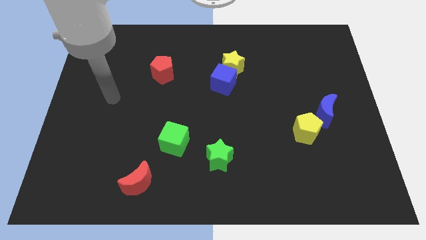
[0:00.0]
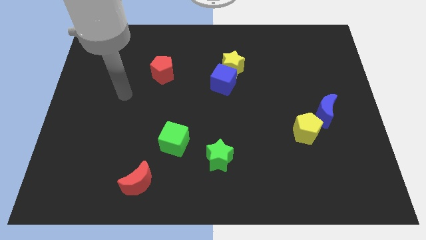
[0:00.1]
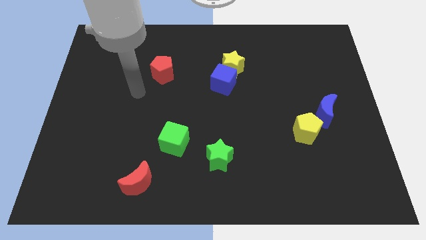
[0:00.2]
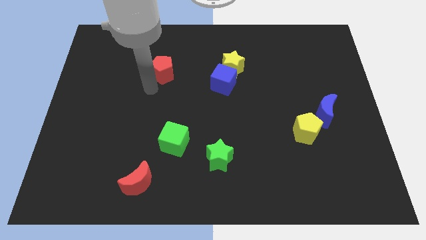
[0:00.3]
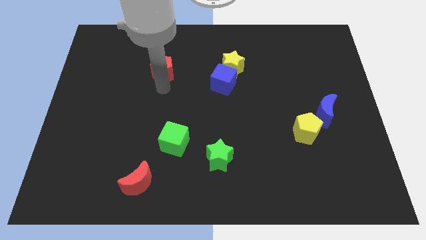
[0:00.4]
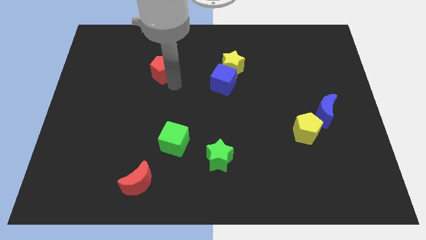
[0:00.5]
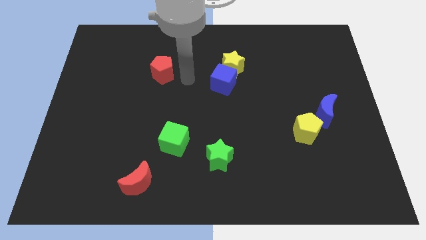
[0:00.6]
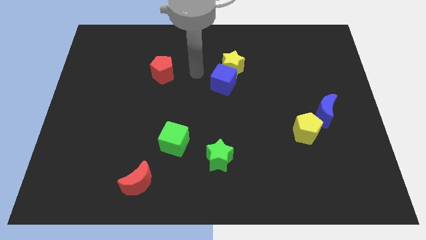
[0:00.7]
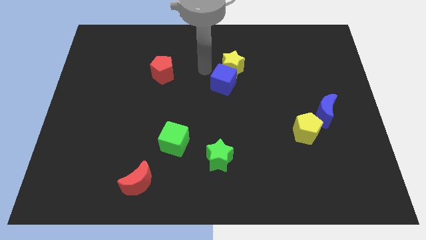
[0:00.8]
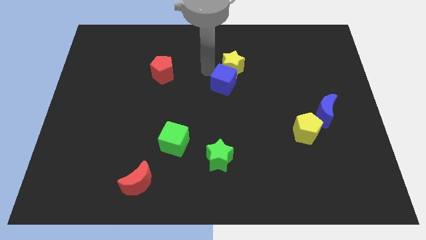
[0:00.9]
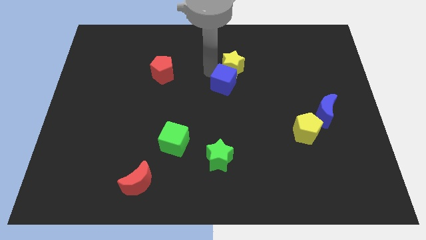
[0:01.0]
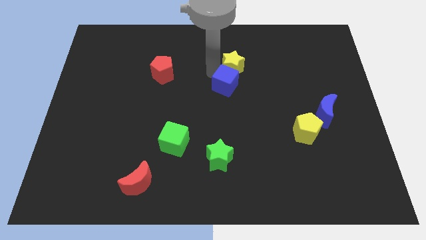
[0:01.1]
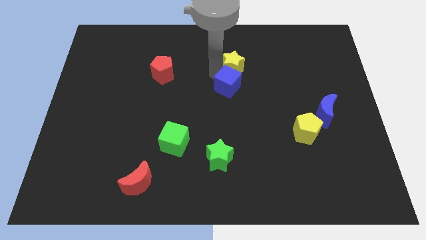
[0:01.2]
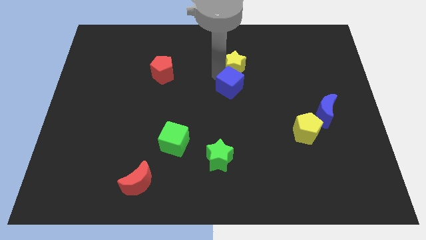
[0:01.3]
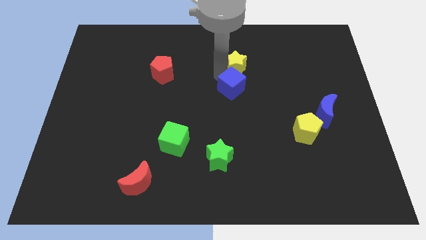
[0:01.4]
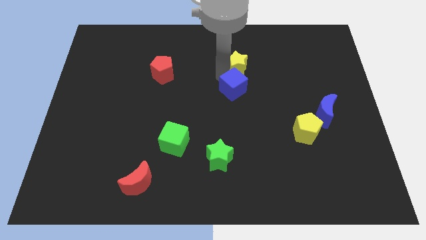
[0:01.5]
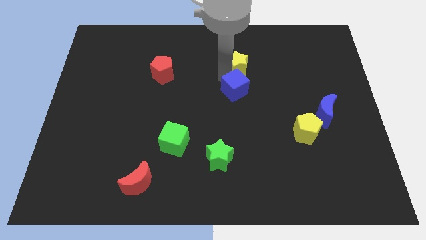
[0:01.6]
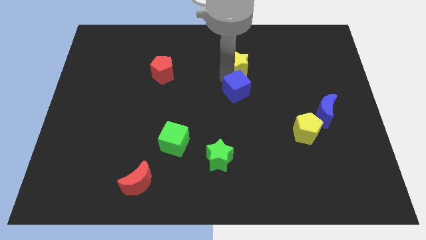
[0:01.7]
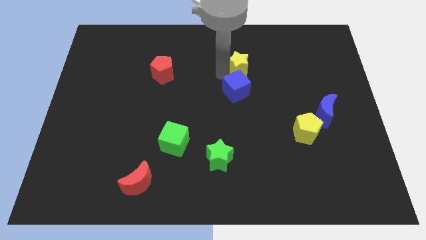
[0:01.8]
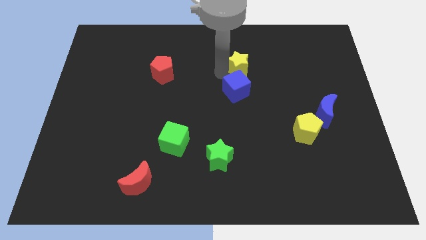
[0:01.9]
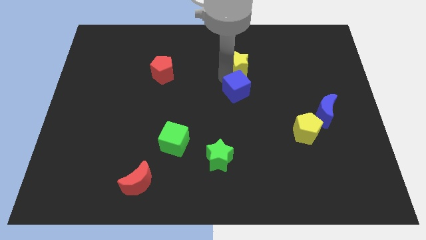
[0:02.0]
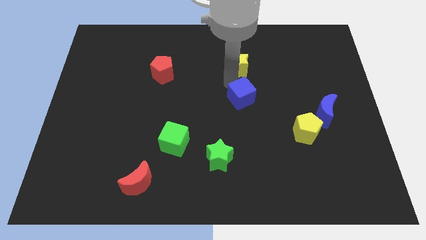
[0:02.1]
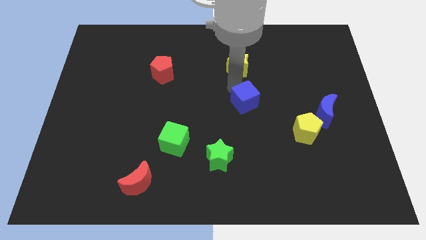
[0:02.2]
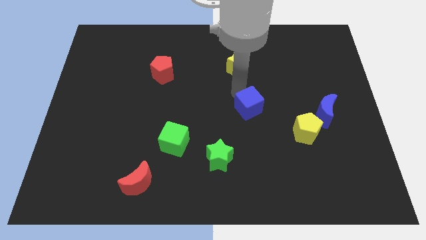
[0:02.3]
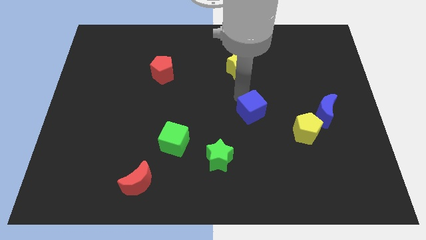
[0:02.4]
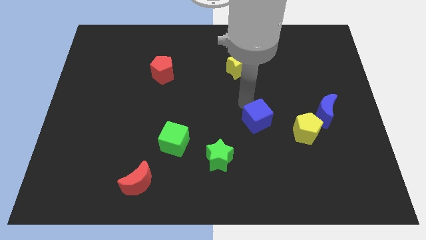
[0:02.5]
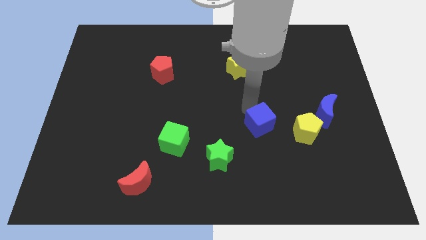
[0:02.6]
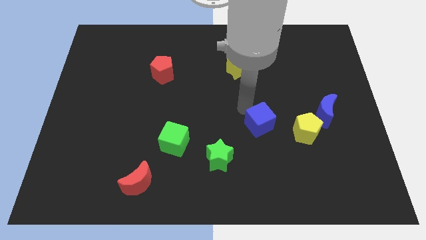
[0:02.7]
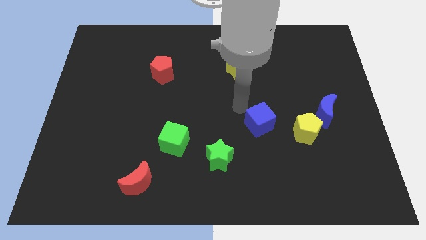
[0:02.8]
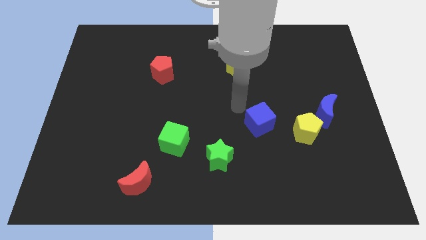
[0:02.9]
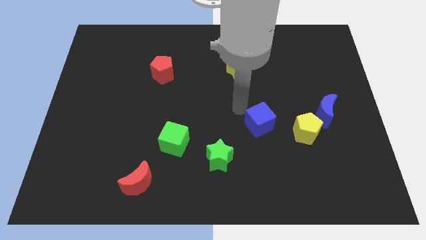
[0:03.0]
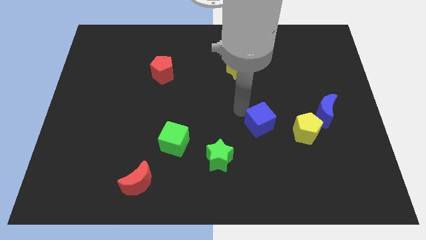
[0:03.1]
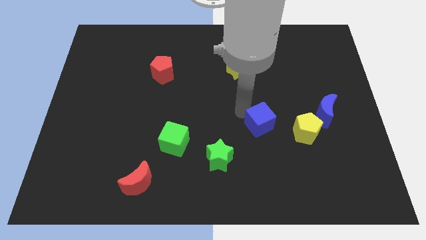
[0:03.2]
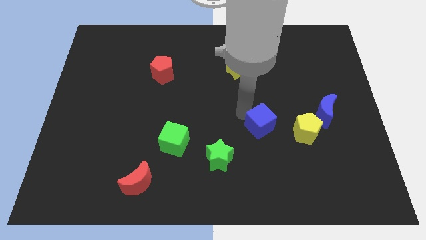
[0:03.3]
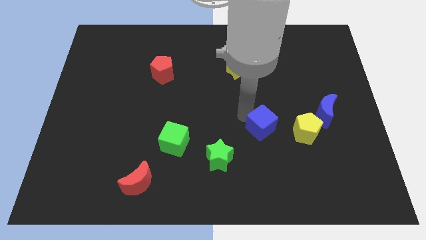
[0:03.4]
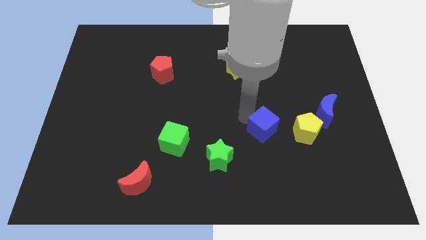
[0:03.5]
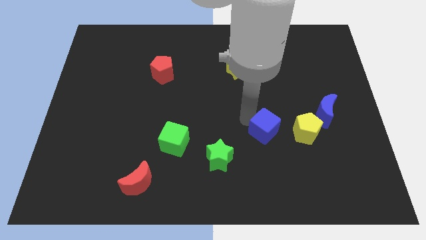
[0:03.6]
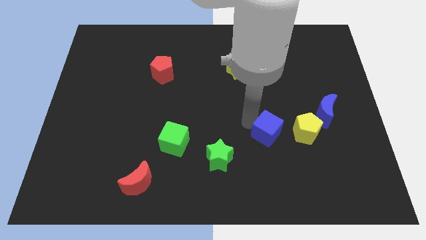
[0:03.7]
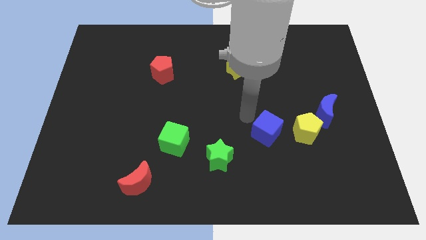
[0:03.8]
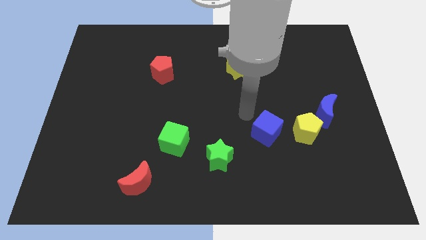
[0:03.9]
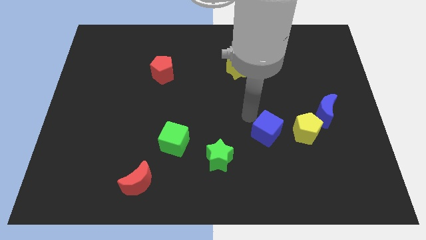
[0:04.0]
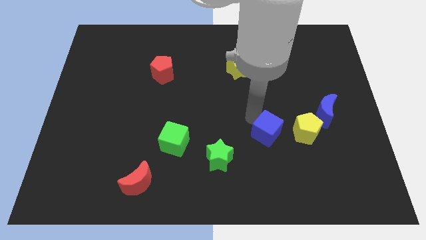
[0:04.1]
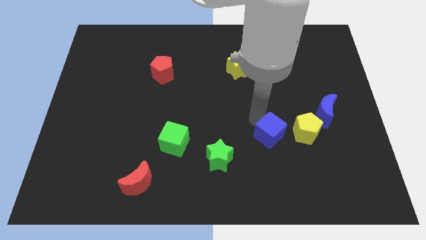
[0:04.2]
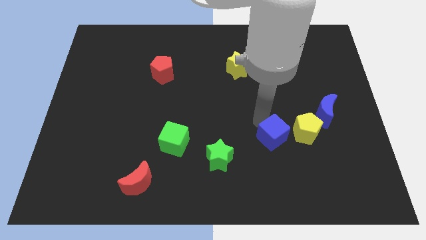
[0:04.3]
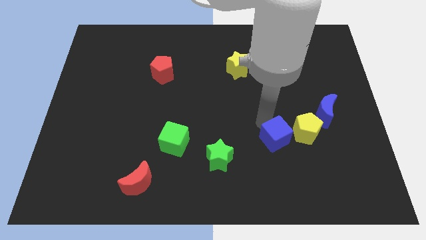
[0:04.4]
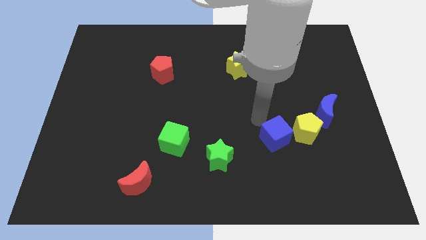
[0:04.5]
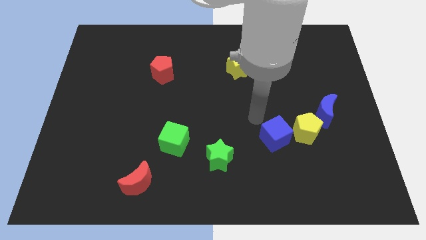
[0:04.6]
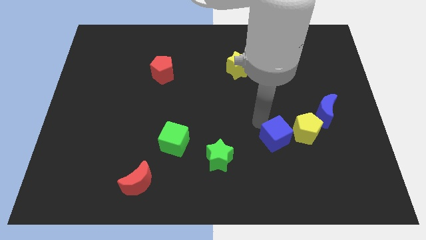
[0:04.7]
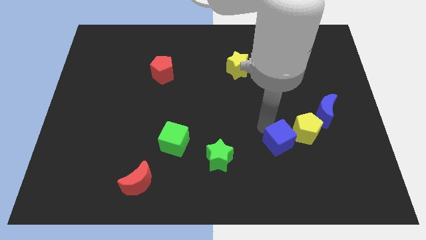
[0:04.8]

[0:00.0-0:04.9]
push the blue cube downwards and to the right

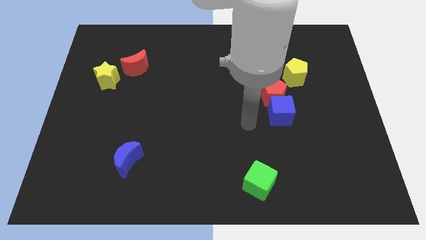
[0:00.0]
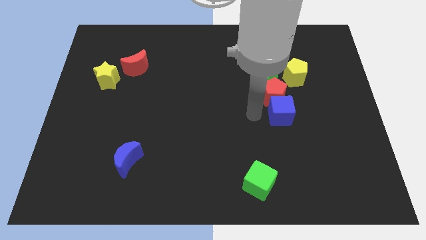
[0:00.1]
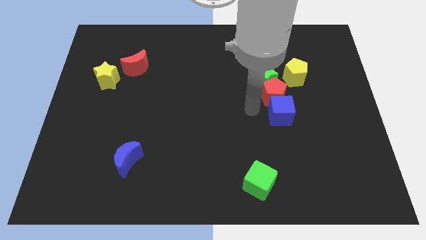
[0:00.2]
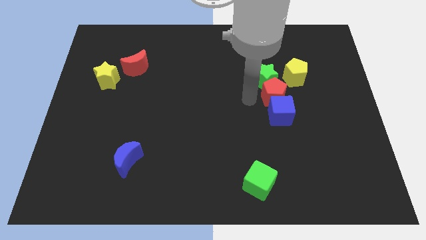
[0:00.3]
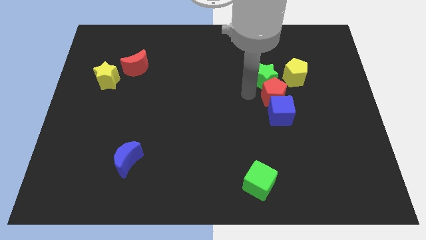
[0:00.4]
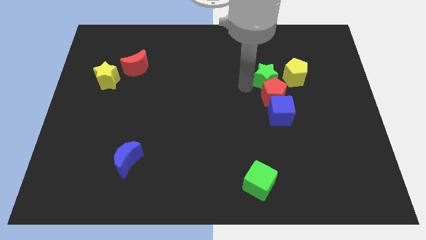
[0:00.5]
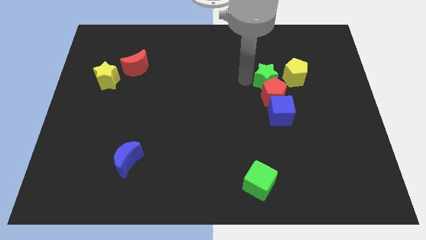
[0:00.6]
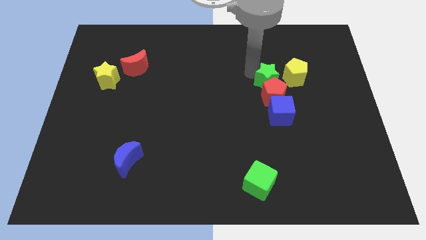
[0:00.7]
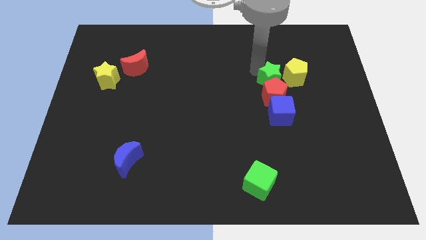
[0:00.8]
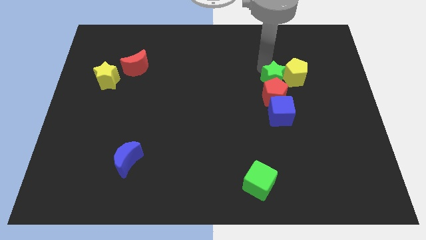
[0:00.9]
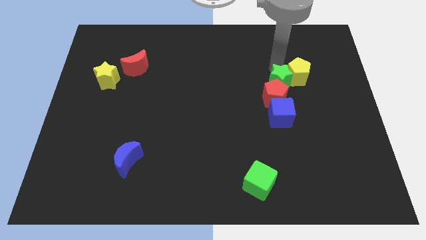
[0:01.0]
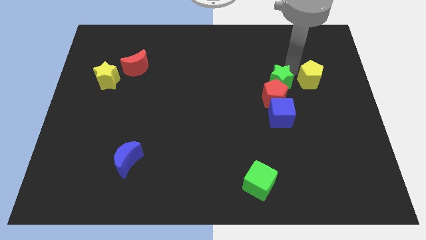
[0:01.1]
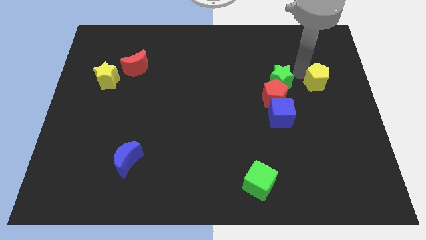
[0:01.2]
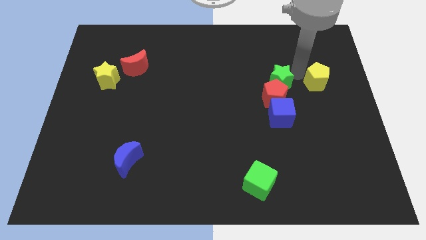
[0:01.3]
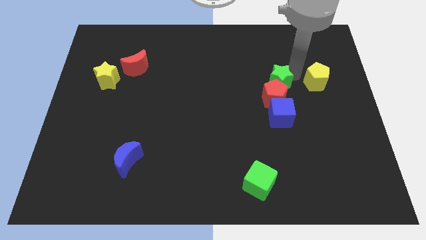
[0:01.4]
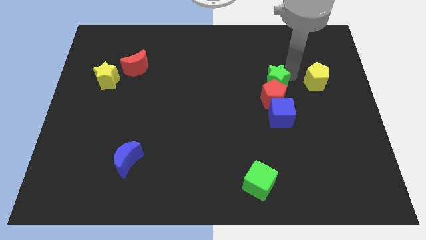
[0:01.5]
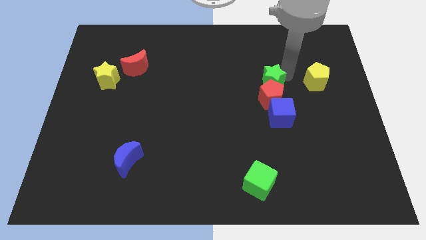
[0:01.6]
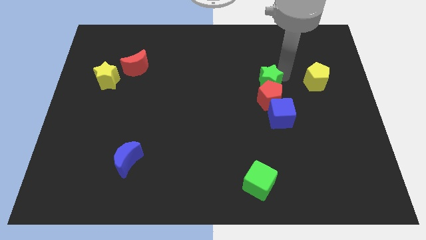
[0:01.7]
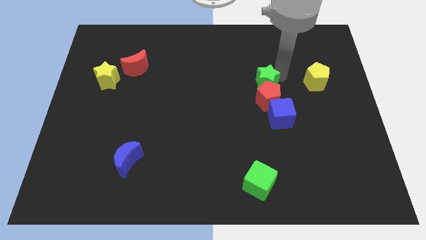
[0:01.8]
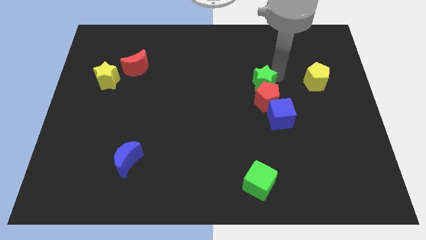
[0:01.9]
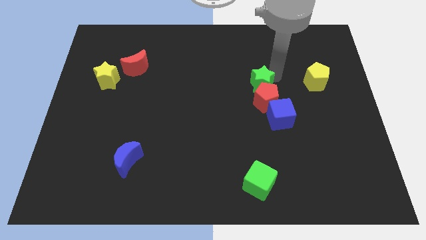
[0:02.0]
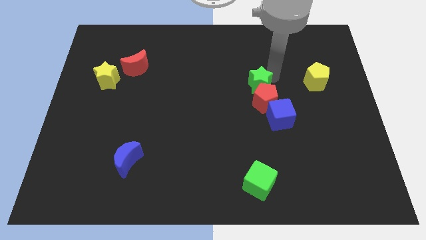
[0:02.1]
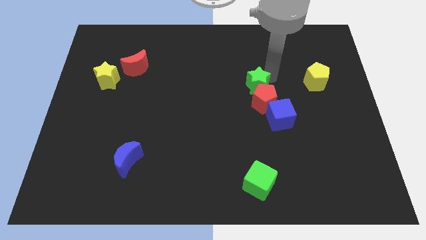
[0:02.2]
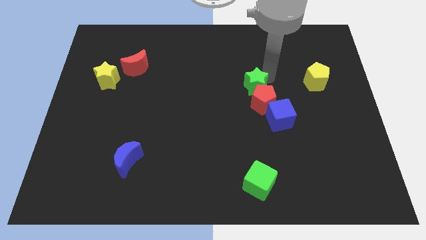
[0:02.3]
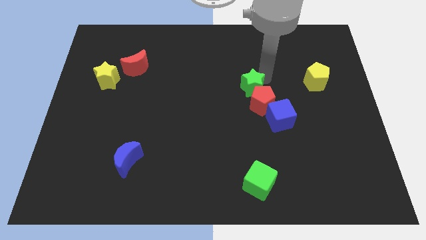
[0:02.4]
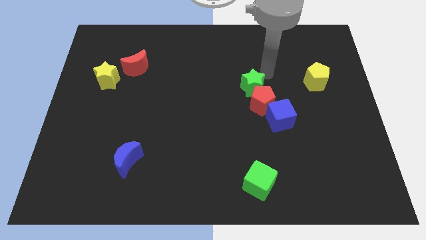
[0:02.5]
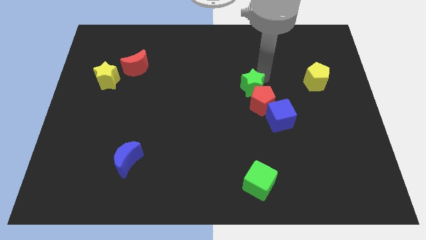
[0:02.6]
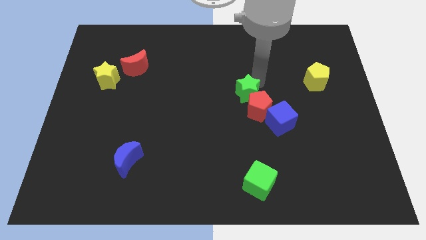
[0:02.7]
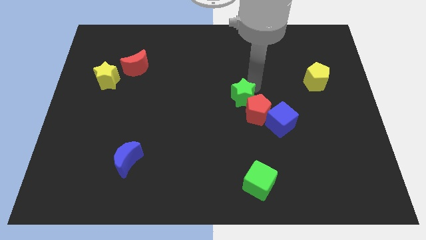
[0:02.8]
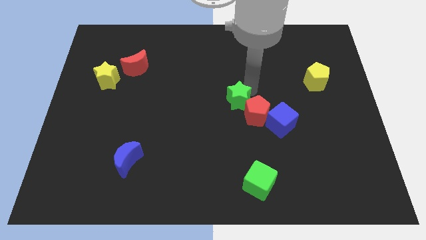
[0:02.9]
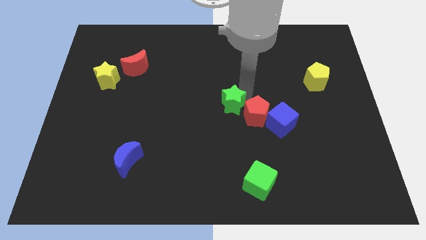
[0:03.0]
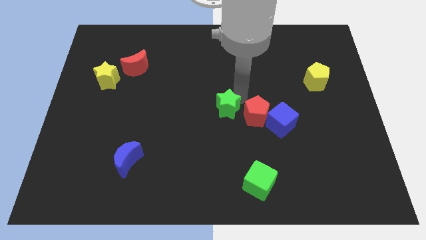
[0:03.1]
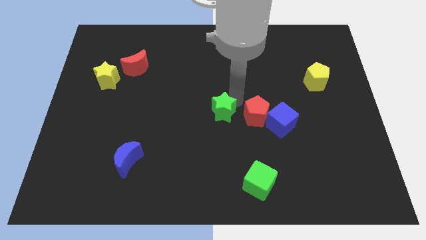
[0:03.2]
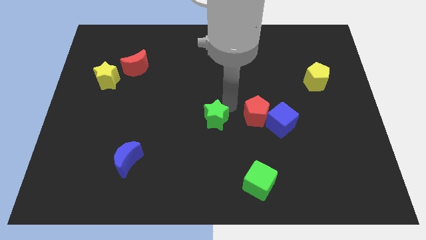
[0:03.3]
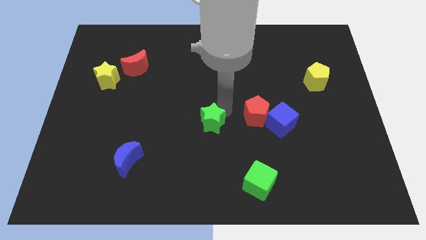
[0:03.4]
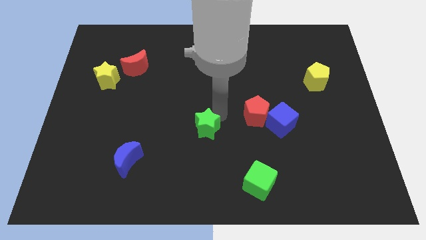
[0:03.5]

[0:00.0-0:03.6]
push the green star downwards and left
